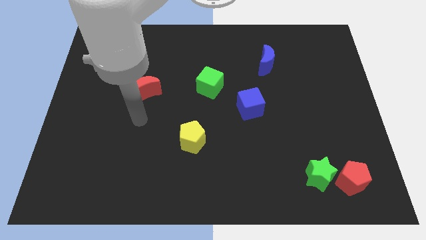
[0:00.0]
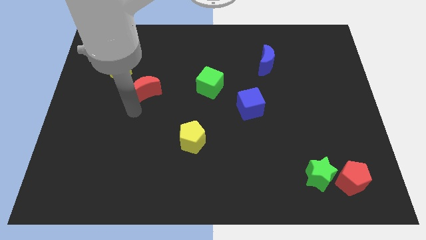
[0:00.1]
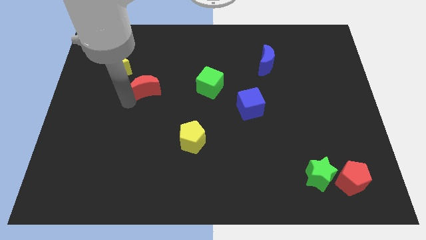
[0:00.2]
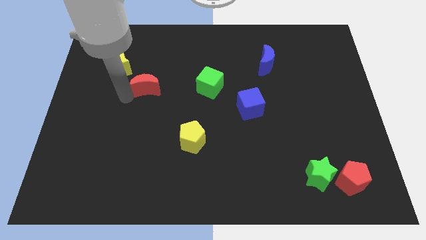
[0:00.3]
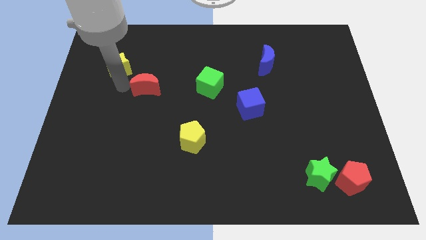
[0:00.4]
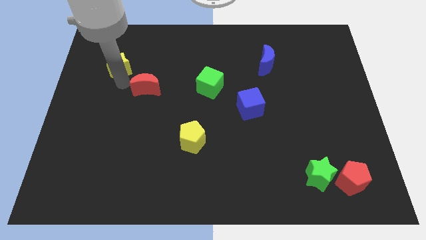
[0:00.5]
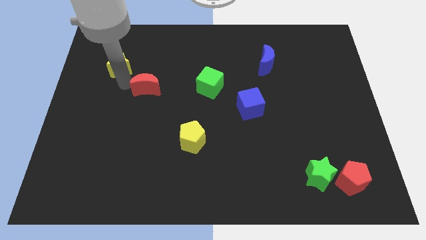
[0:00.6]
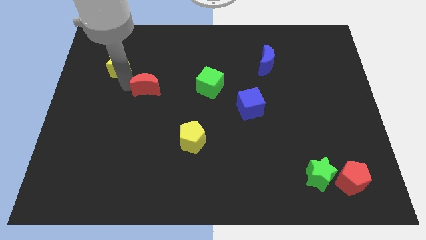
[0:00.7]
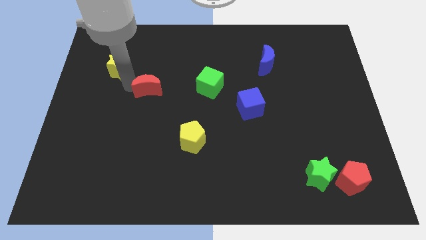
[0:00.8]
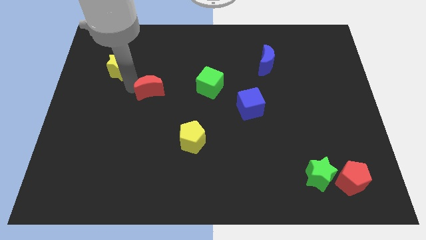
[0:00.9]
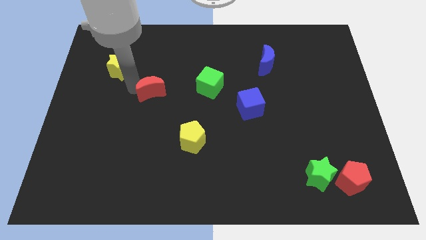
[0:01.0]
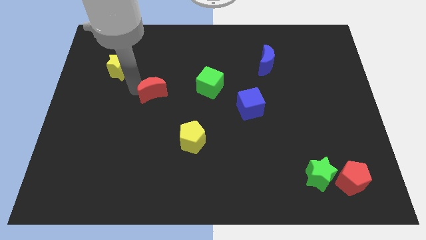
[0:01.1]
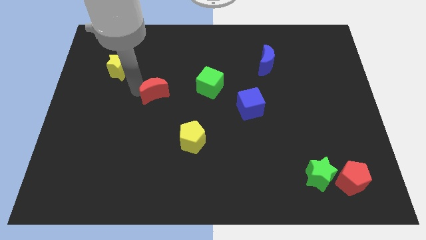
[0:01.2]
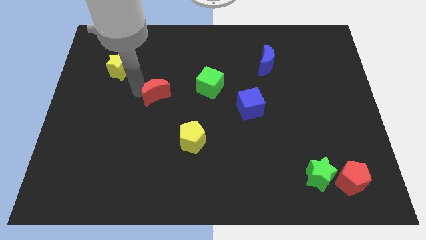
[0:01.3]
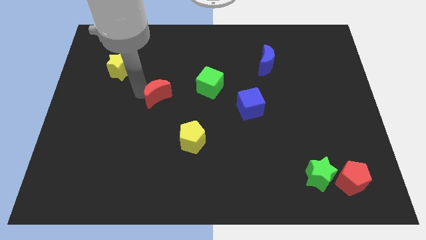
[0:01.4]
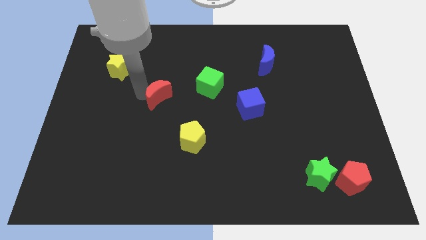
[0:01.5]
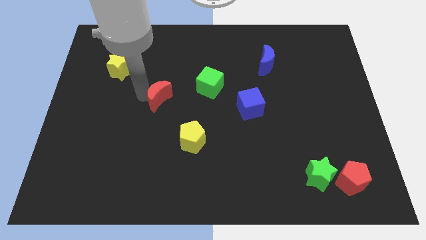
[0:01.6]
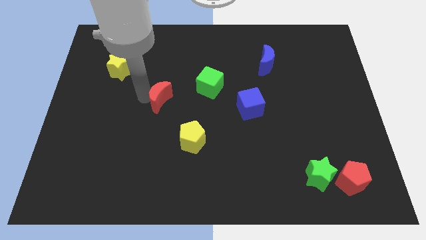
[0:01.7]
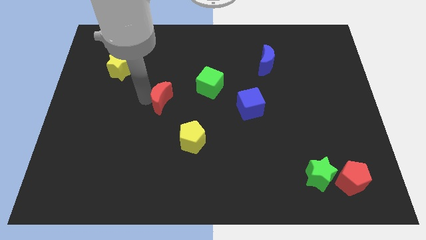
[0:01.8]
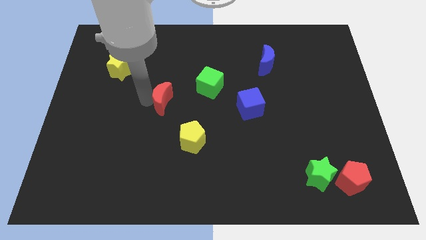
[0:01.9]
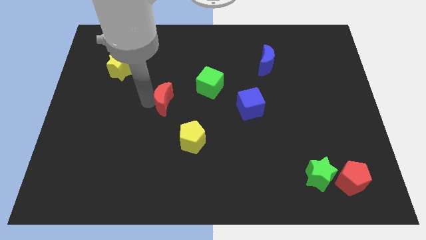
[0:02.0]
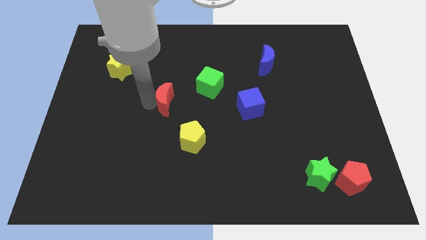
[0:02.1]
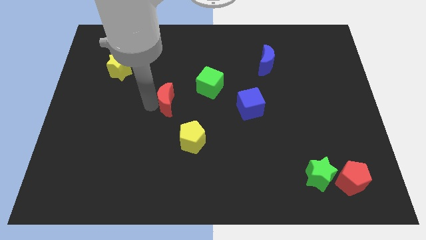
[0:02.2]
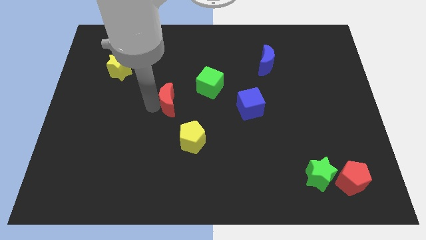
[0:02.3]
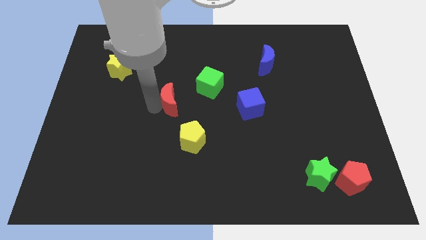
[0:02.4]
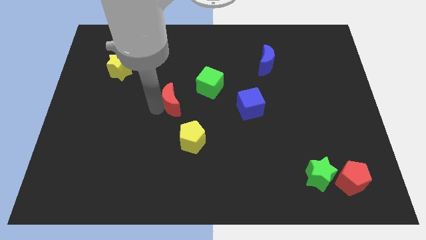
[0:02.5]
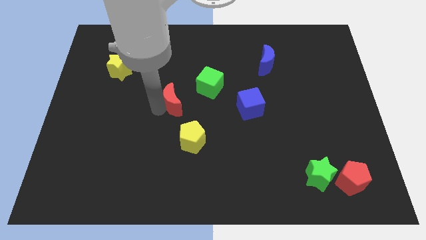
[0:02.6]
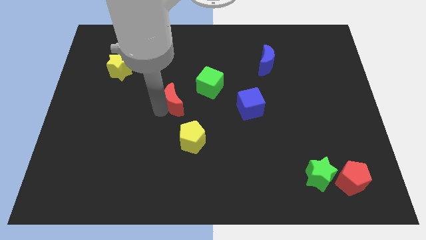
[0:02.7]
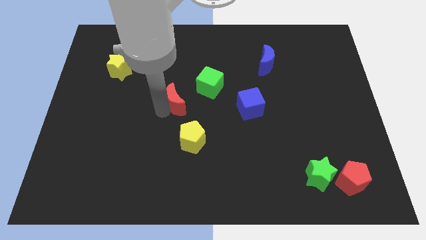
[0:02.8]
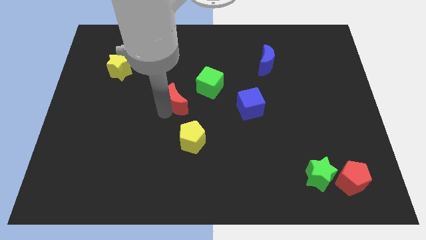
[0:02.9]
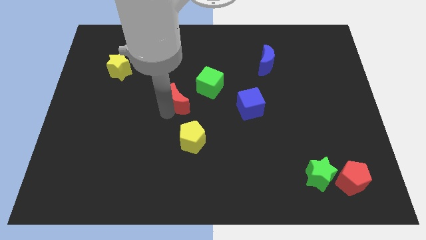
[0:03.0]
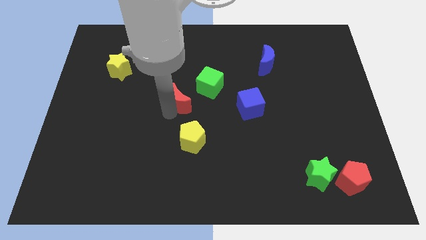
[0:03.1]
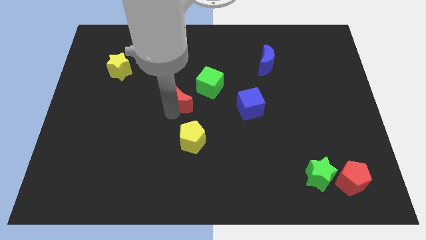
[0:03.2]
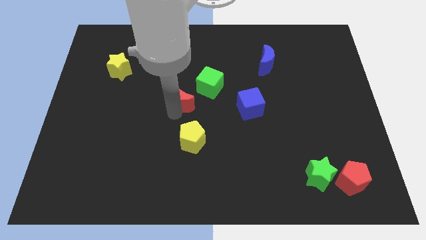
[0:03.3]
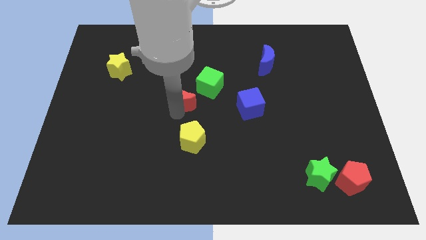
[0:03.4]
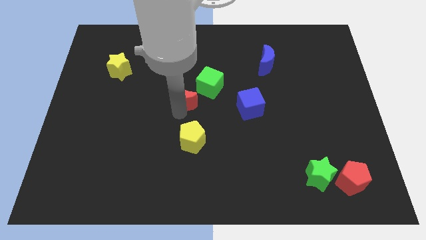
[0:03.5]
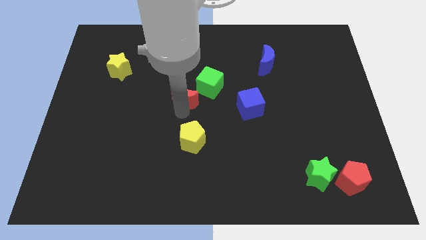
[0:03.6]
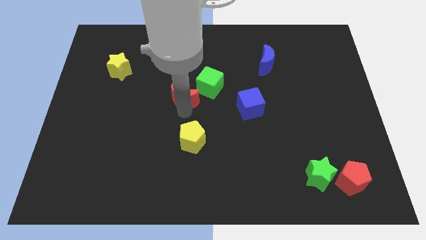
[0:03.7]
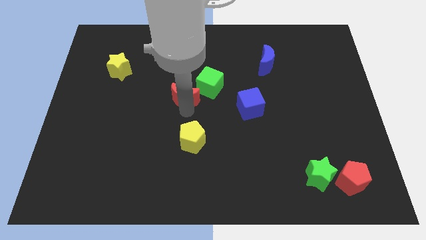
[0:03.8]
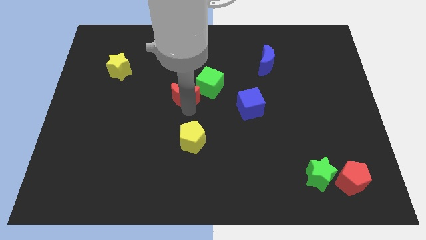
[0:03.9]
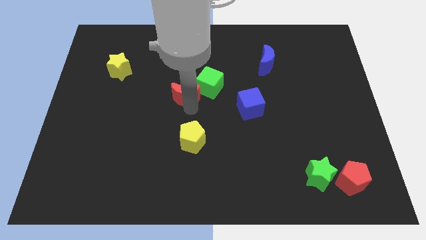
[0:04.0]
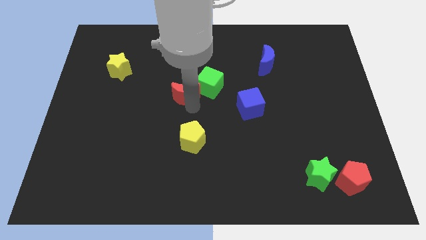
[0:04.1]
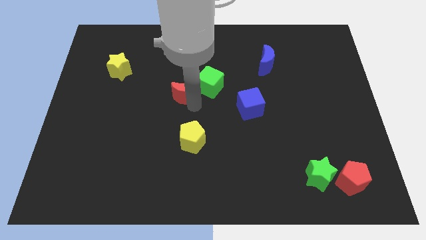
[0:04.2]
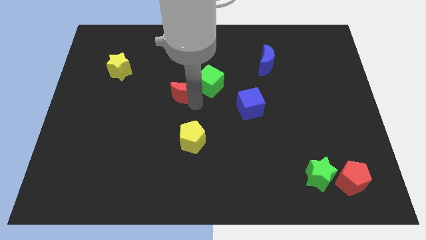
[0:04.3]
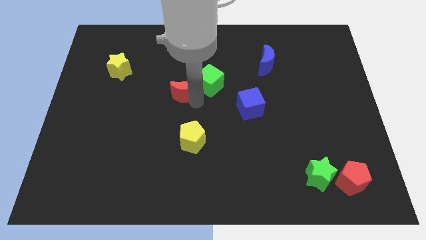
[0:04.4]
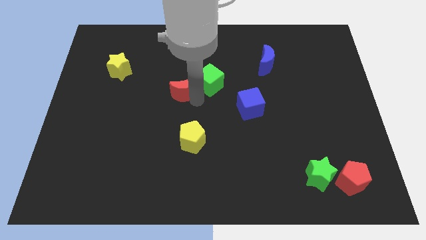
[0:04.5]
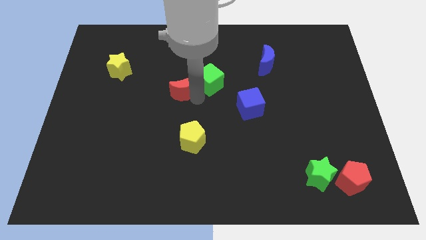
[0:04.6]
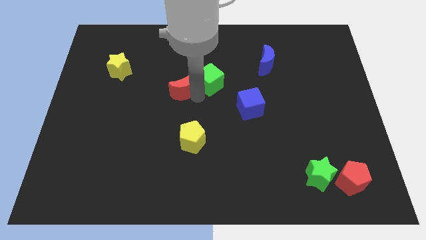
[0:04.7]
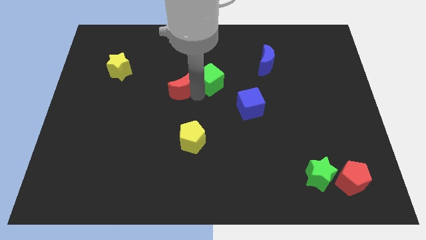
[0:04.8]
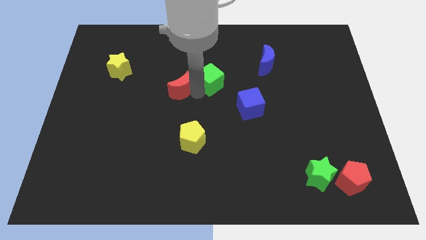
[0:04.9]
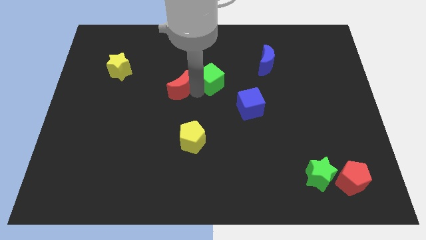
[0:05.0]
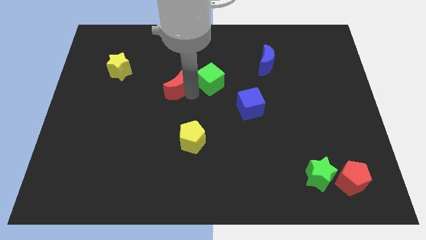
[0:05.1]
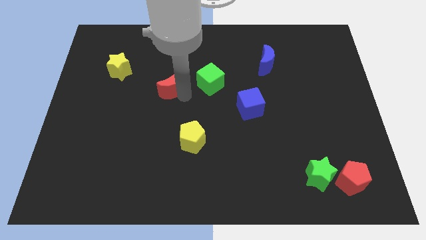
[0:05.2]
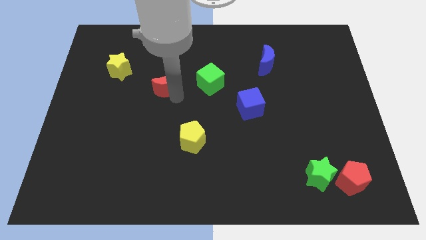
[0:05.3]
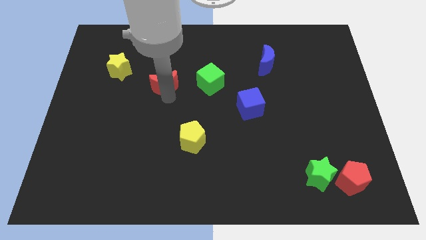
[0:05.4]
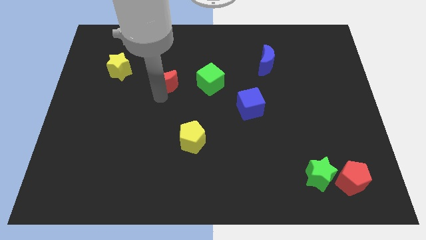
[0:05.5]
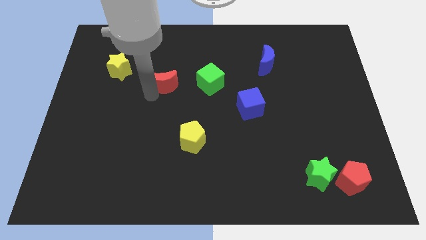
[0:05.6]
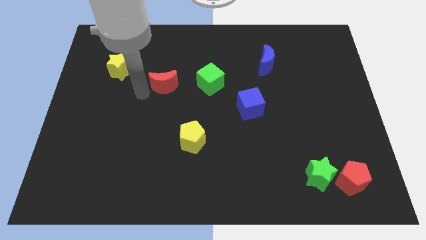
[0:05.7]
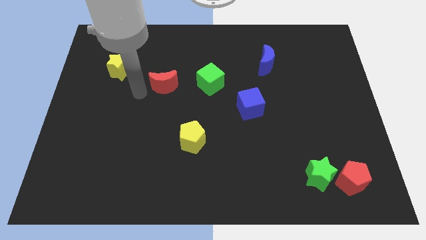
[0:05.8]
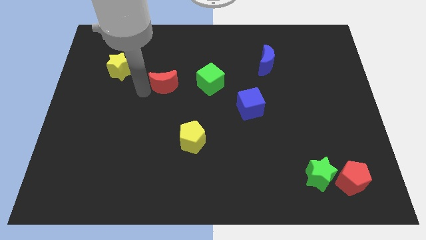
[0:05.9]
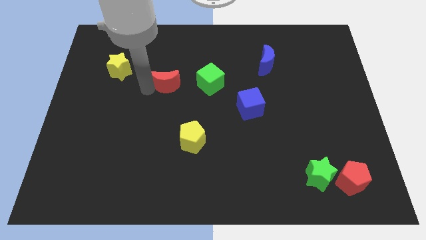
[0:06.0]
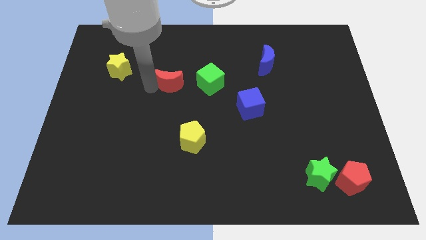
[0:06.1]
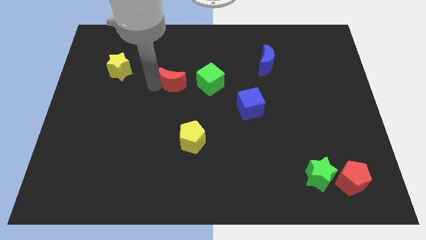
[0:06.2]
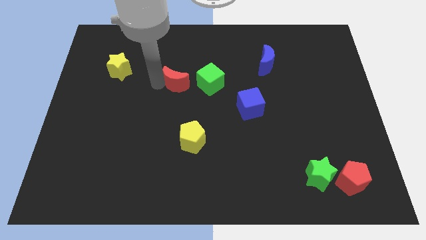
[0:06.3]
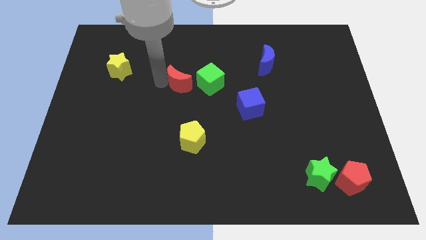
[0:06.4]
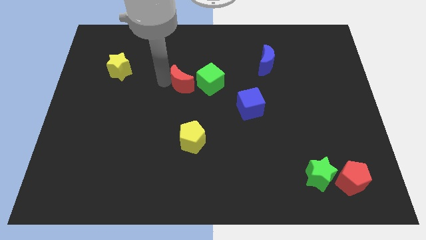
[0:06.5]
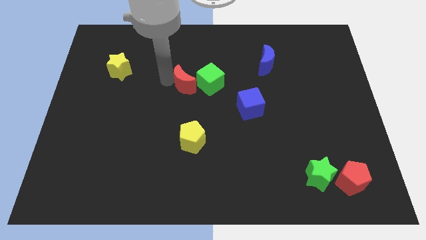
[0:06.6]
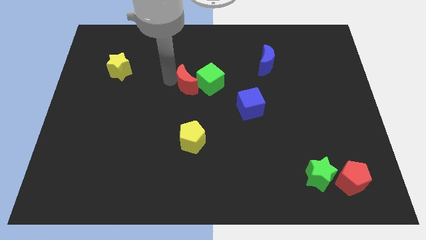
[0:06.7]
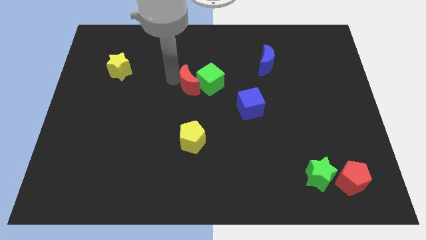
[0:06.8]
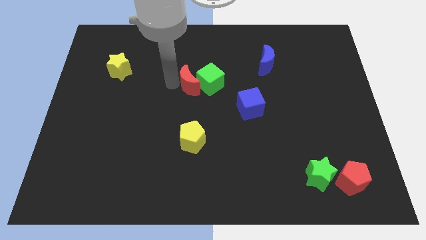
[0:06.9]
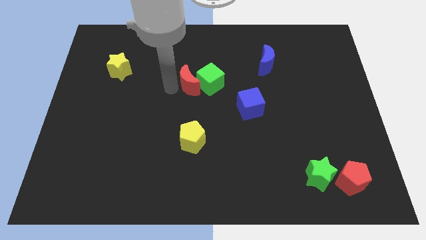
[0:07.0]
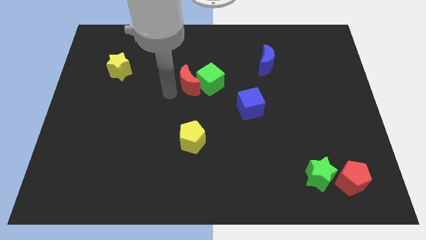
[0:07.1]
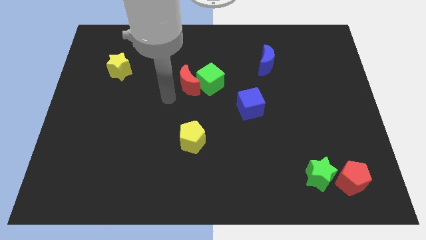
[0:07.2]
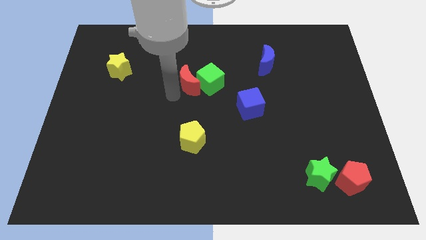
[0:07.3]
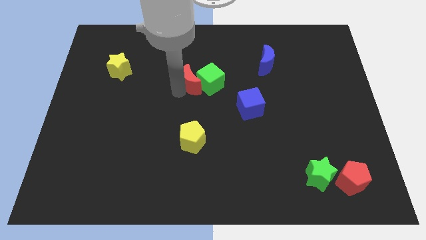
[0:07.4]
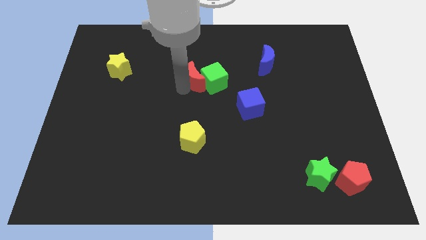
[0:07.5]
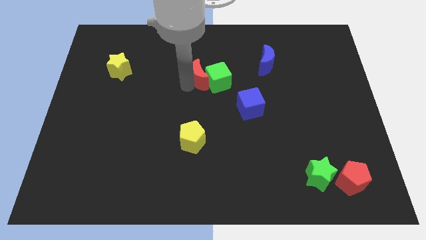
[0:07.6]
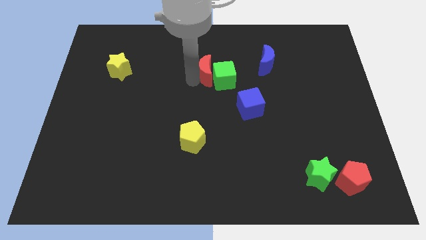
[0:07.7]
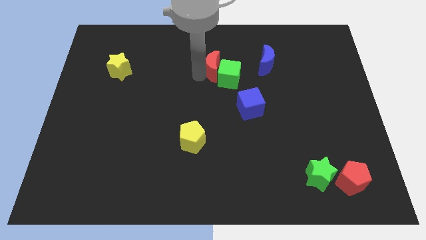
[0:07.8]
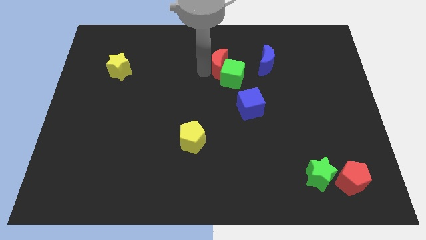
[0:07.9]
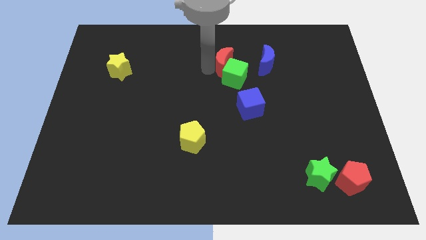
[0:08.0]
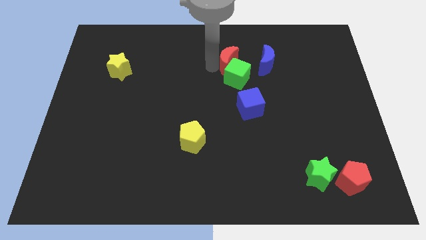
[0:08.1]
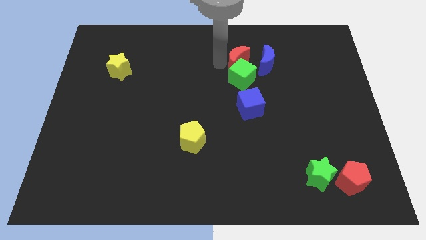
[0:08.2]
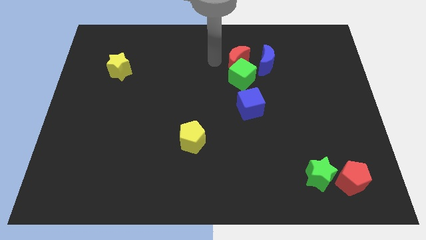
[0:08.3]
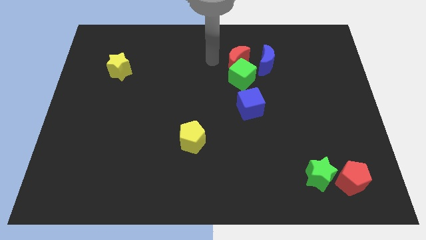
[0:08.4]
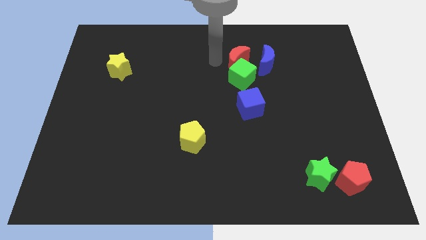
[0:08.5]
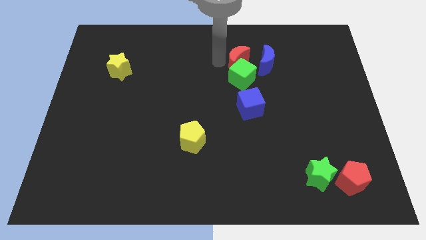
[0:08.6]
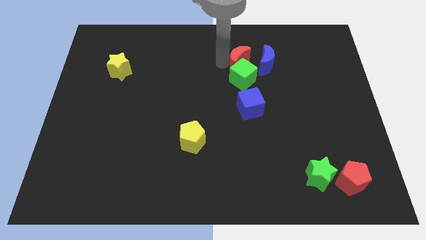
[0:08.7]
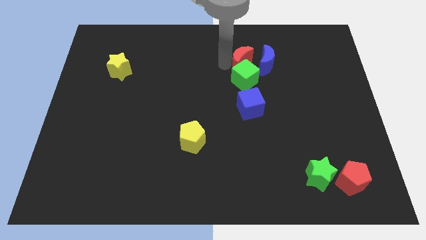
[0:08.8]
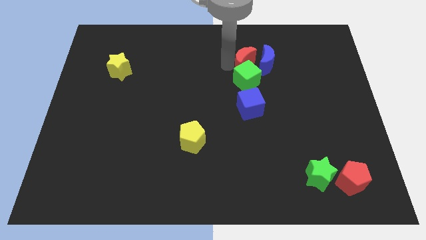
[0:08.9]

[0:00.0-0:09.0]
move the red moon towards the blue moon
